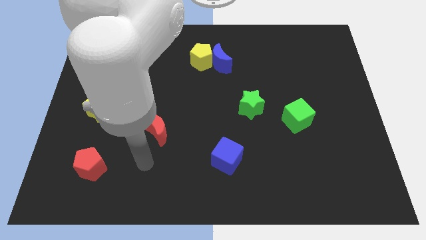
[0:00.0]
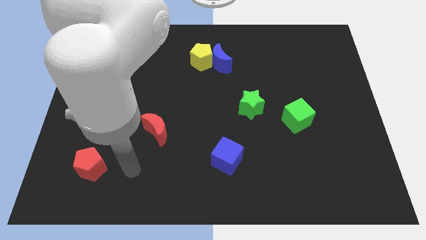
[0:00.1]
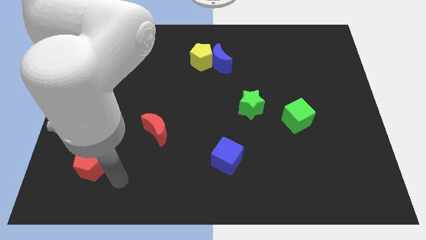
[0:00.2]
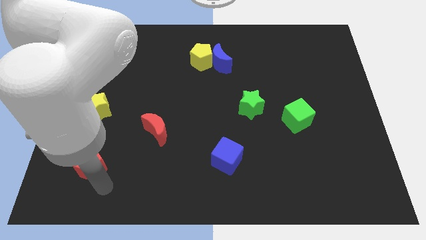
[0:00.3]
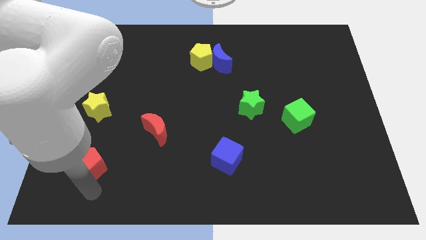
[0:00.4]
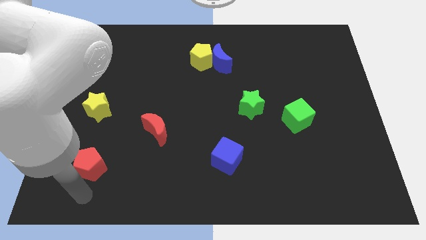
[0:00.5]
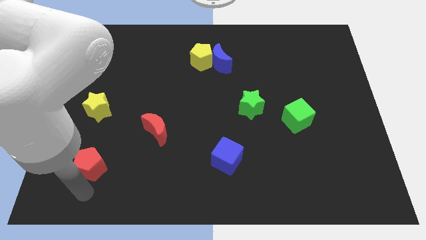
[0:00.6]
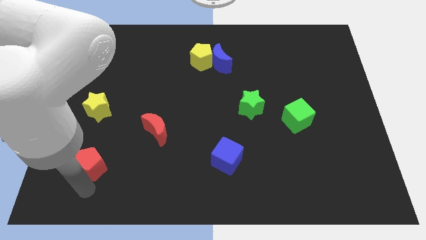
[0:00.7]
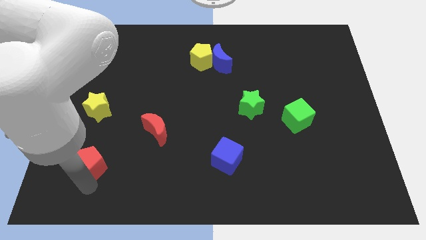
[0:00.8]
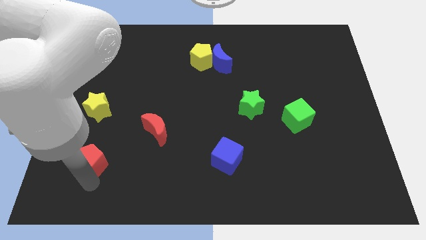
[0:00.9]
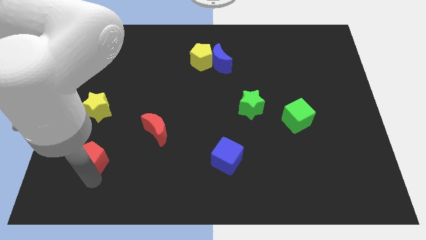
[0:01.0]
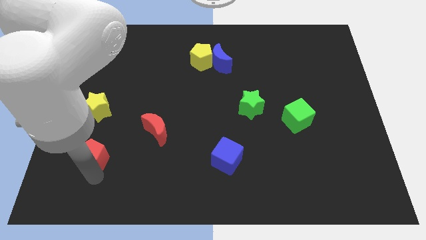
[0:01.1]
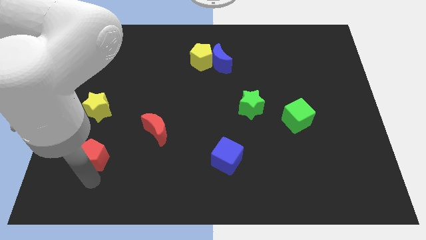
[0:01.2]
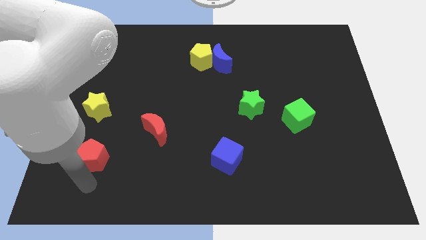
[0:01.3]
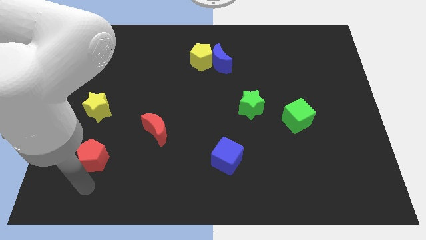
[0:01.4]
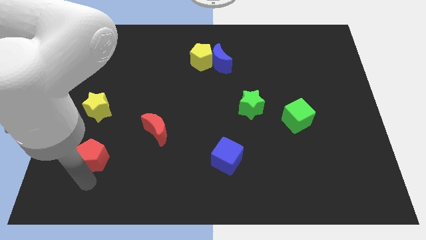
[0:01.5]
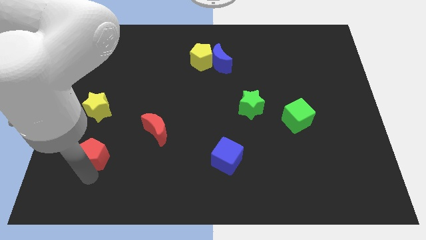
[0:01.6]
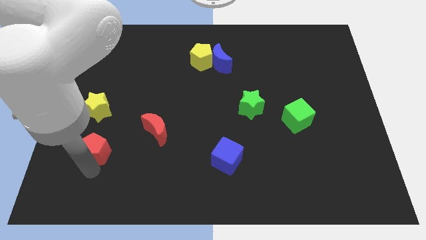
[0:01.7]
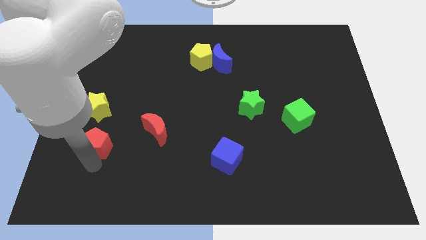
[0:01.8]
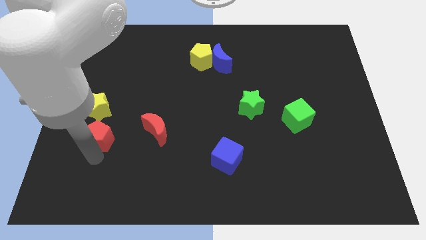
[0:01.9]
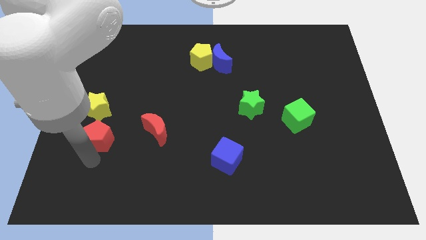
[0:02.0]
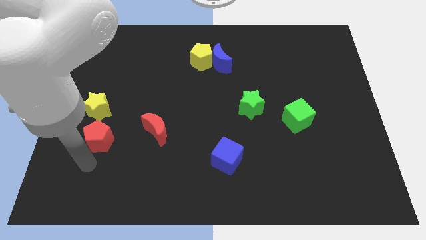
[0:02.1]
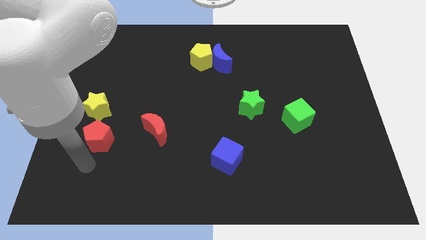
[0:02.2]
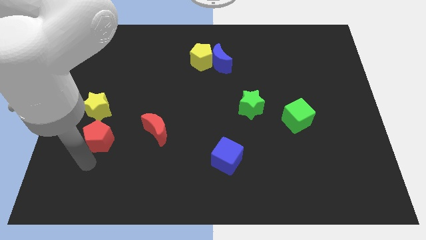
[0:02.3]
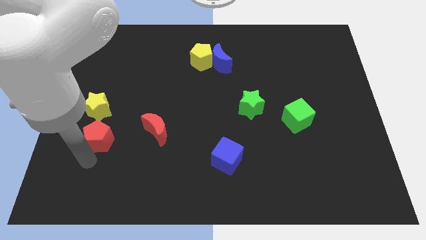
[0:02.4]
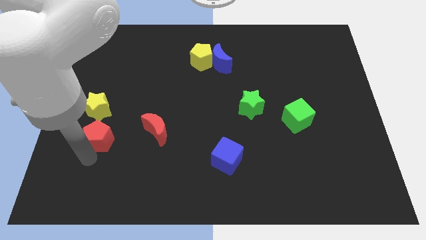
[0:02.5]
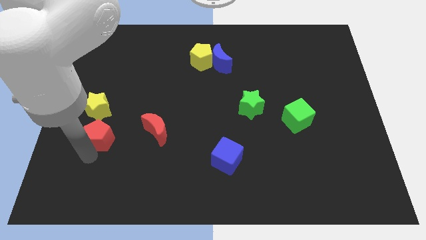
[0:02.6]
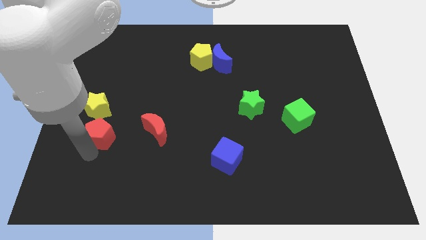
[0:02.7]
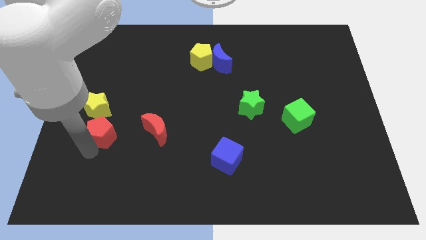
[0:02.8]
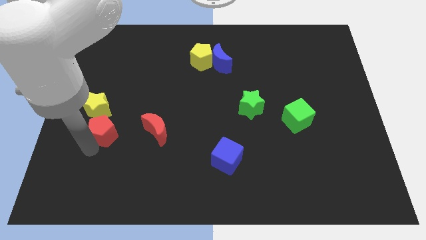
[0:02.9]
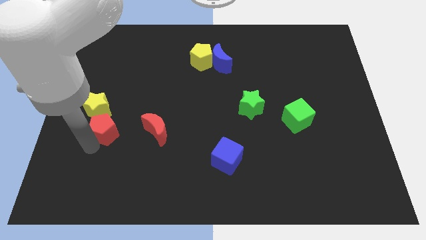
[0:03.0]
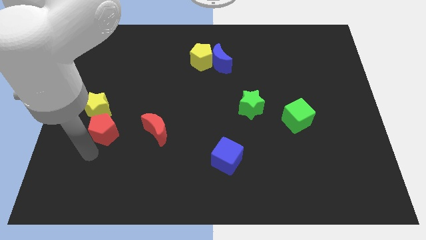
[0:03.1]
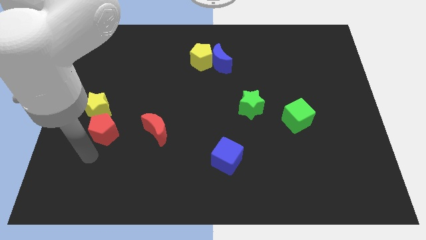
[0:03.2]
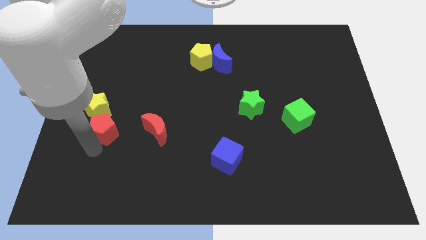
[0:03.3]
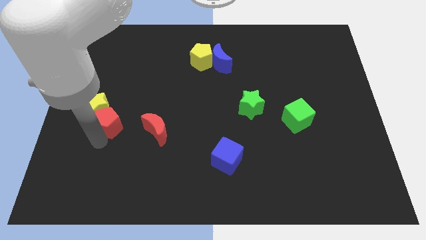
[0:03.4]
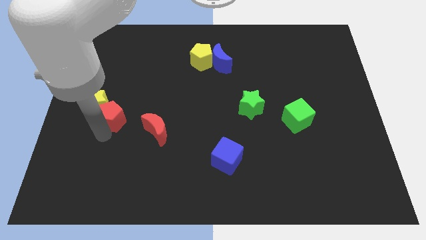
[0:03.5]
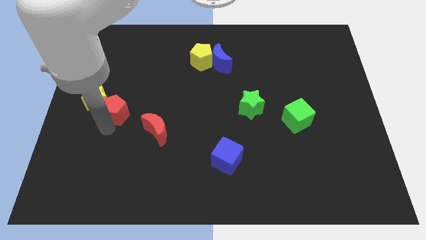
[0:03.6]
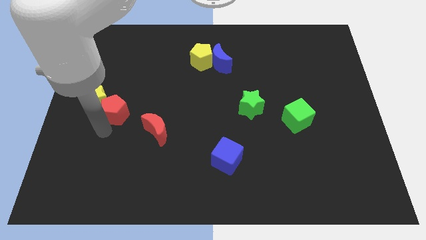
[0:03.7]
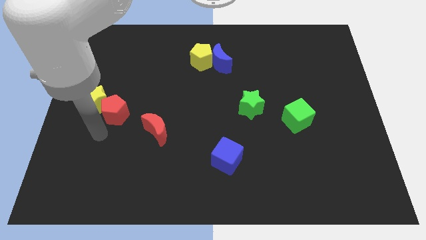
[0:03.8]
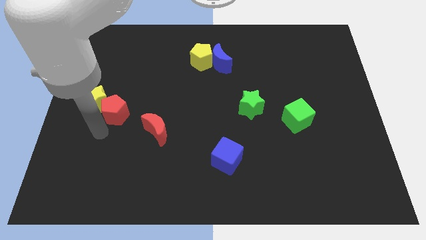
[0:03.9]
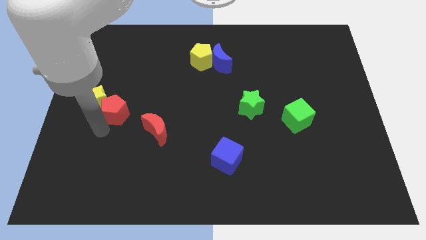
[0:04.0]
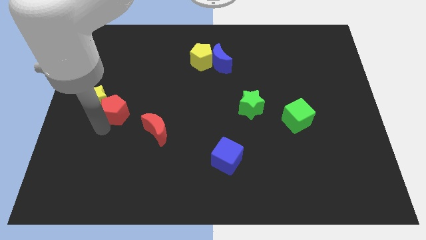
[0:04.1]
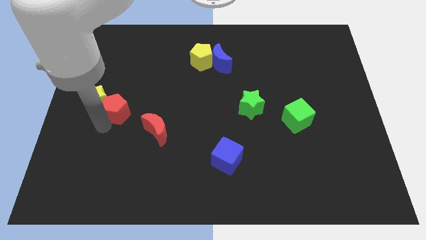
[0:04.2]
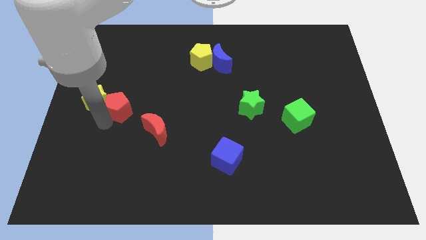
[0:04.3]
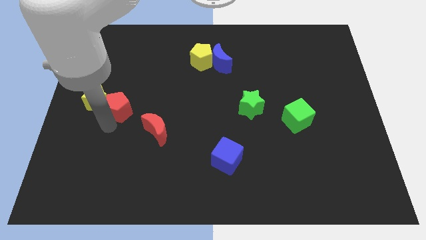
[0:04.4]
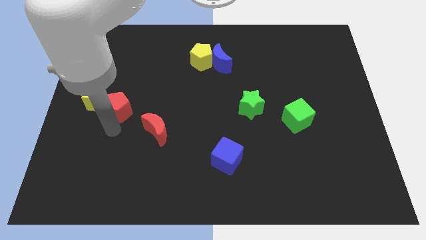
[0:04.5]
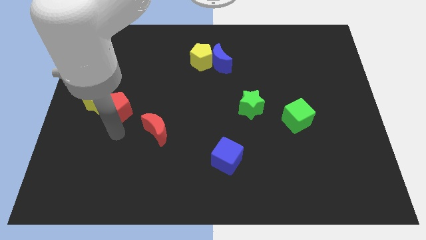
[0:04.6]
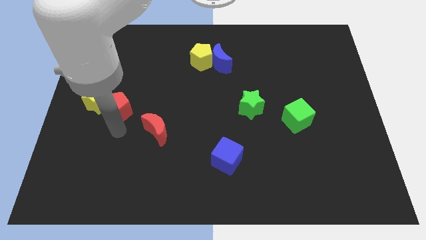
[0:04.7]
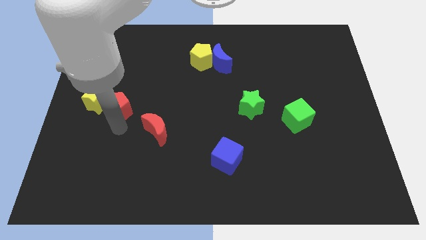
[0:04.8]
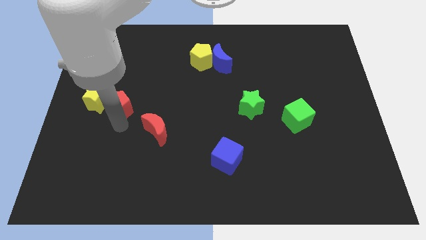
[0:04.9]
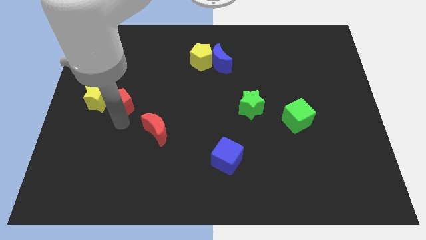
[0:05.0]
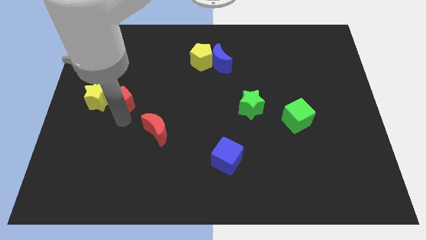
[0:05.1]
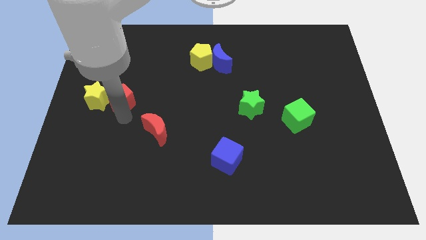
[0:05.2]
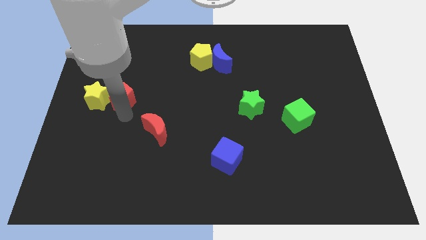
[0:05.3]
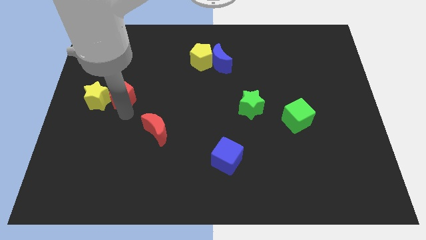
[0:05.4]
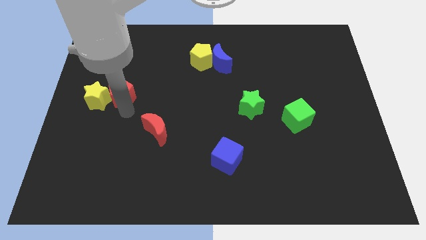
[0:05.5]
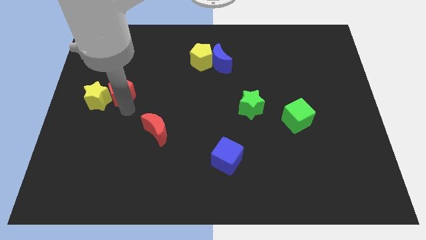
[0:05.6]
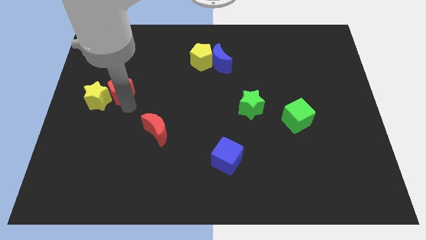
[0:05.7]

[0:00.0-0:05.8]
move the red pentagon up

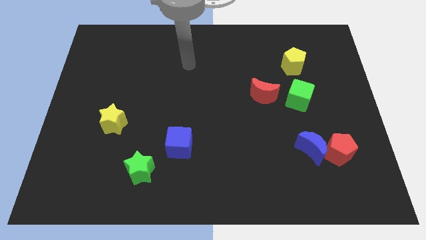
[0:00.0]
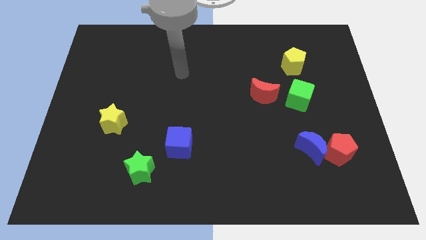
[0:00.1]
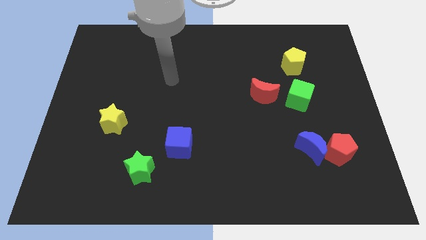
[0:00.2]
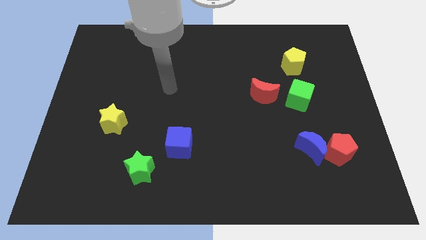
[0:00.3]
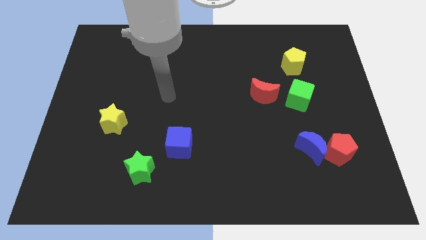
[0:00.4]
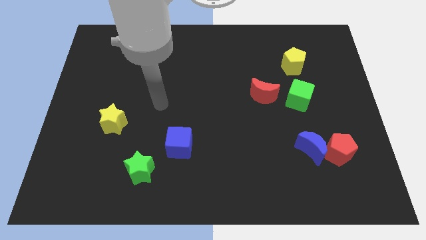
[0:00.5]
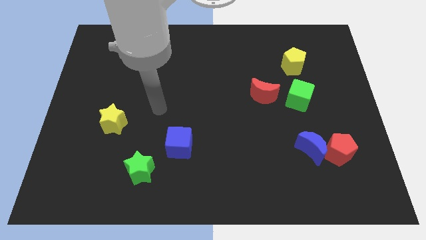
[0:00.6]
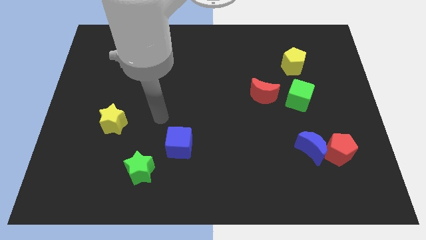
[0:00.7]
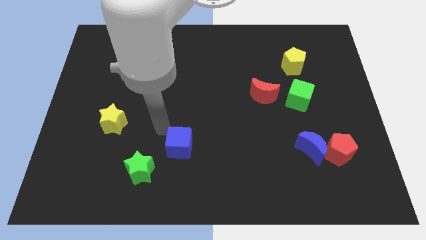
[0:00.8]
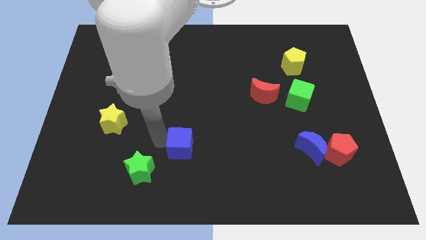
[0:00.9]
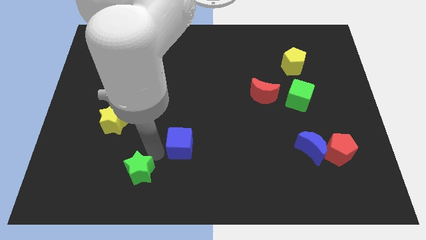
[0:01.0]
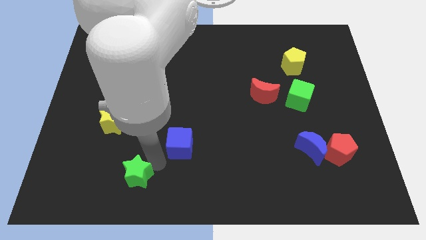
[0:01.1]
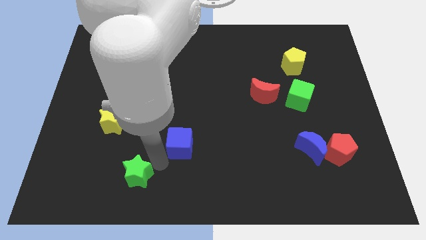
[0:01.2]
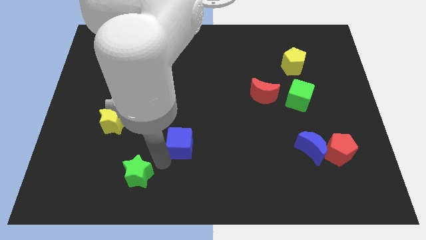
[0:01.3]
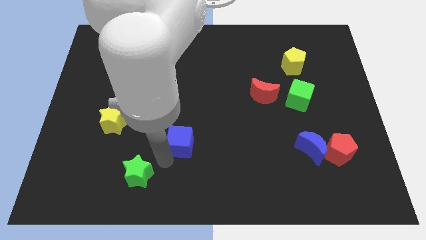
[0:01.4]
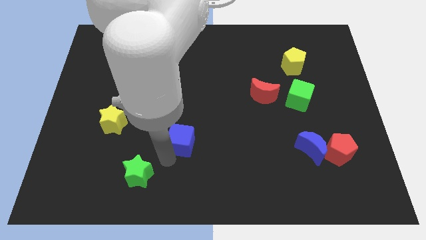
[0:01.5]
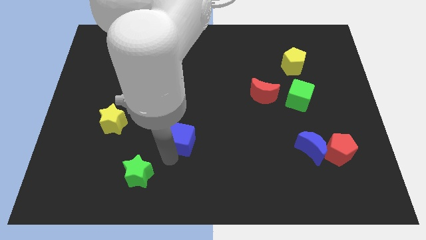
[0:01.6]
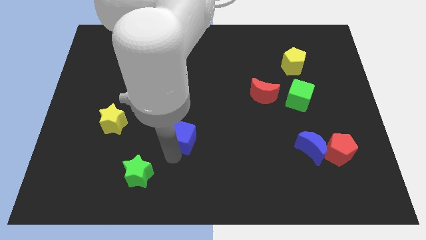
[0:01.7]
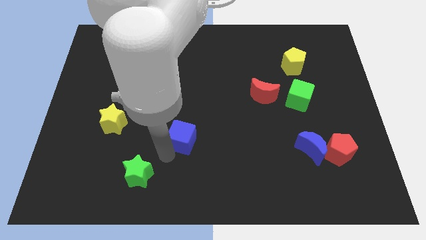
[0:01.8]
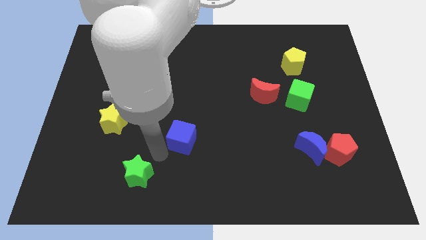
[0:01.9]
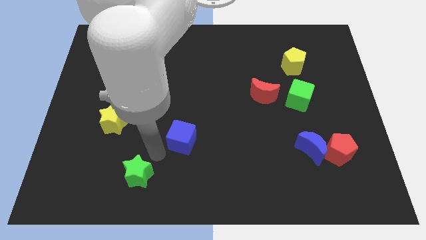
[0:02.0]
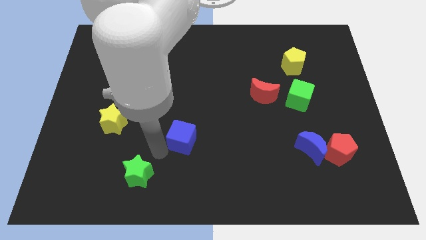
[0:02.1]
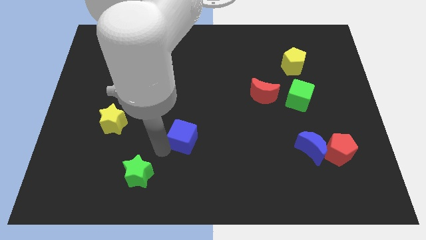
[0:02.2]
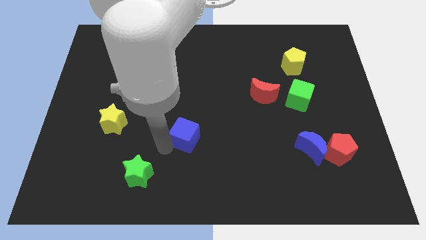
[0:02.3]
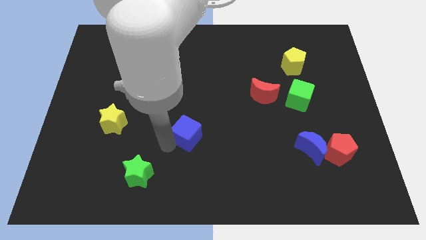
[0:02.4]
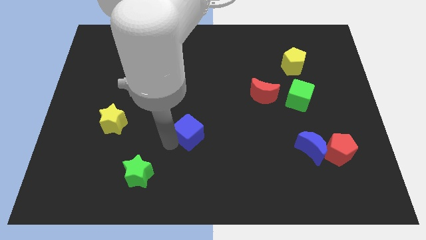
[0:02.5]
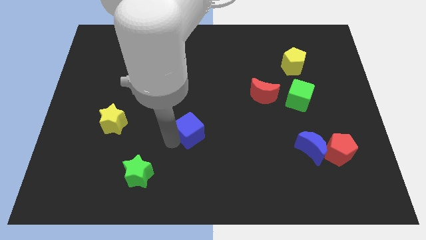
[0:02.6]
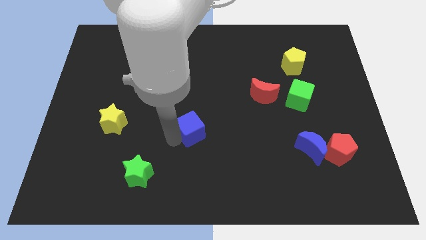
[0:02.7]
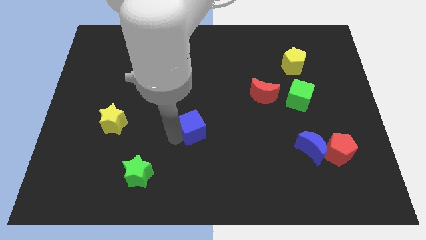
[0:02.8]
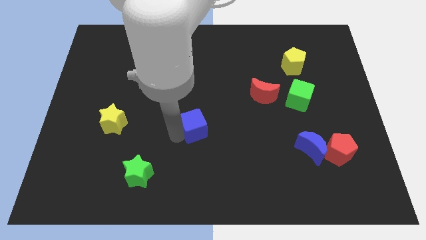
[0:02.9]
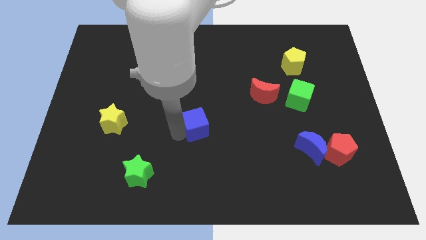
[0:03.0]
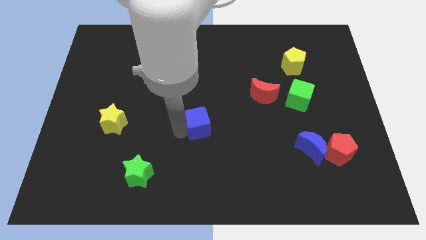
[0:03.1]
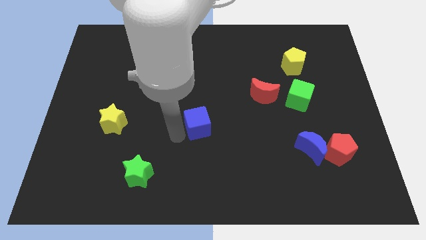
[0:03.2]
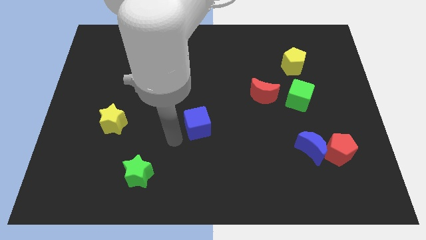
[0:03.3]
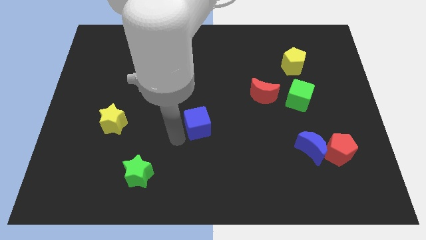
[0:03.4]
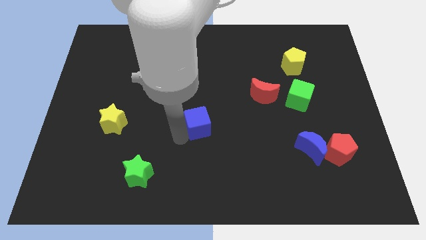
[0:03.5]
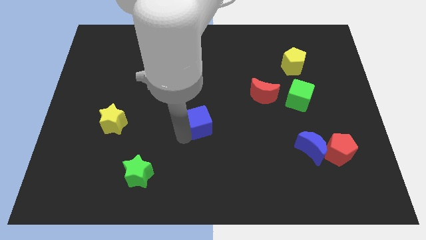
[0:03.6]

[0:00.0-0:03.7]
move the blue cube diagonally upwards and to the right somewhat
